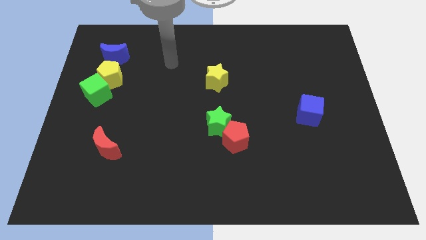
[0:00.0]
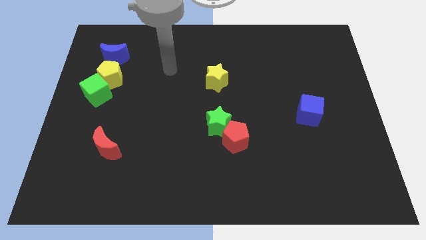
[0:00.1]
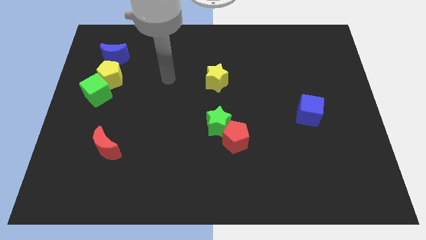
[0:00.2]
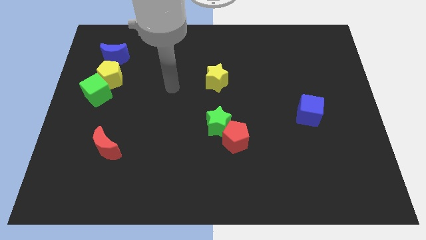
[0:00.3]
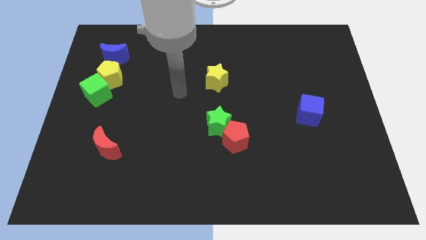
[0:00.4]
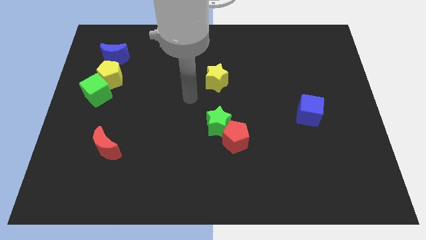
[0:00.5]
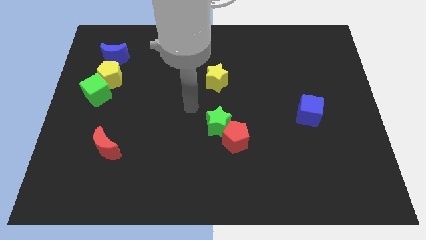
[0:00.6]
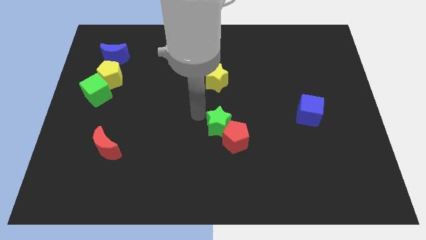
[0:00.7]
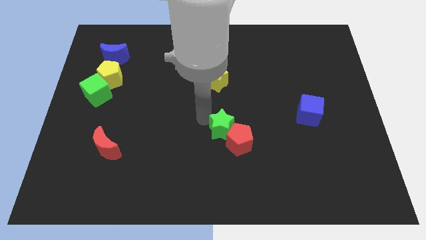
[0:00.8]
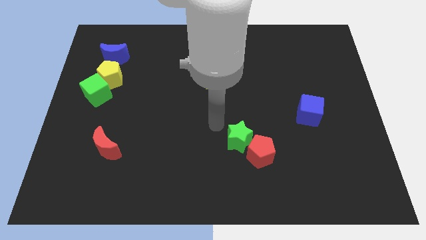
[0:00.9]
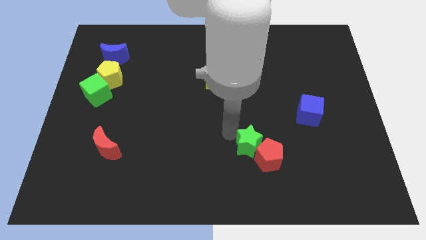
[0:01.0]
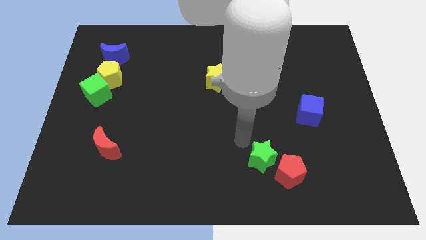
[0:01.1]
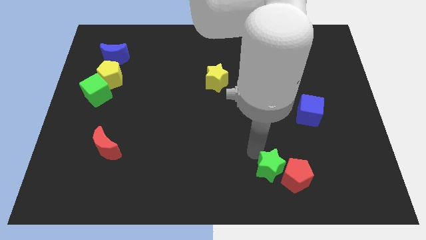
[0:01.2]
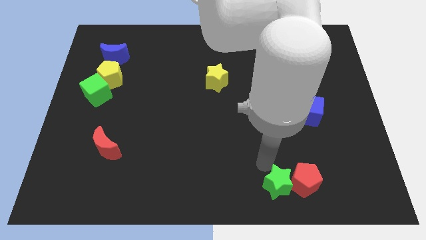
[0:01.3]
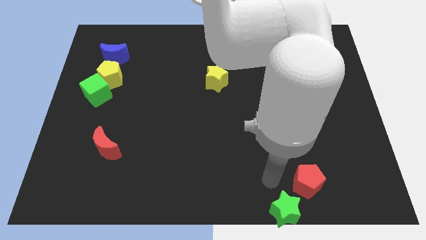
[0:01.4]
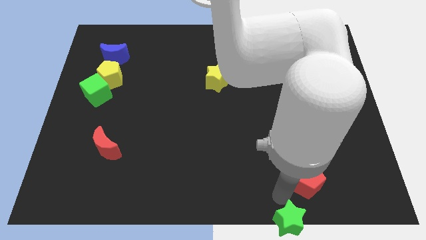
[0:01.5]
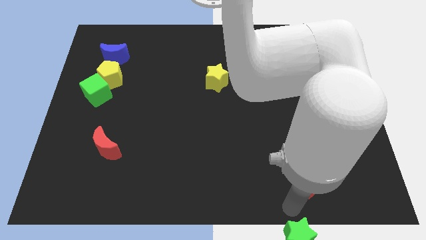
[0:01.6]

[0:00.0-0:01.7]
move the red pentagon away from the green star

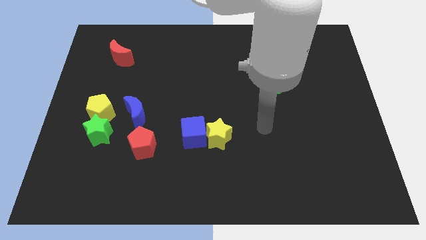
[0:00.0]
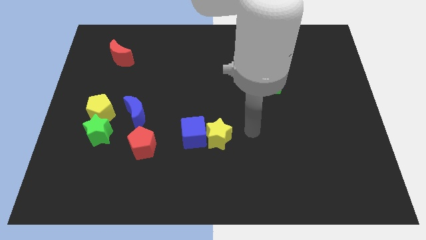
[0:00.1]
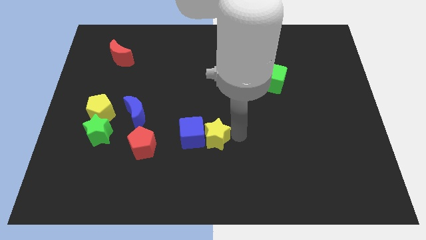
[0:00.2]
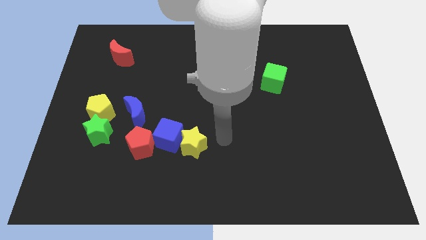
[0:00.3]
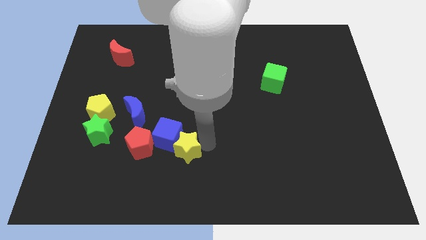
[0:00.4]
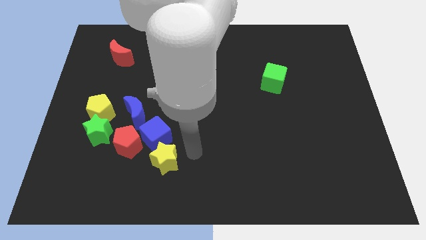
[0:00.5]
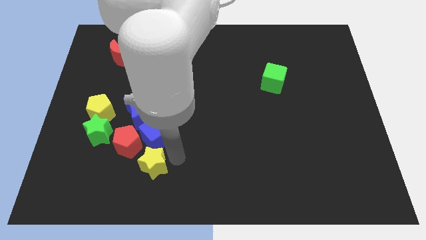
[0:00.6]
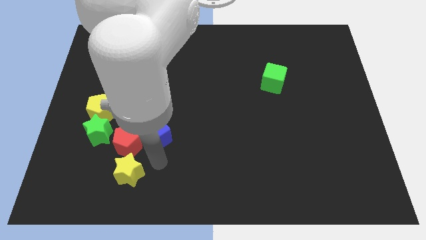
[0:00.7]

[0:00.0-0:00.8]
separate the blue cube from the yellow star

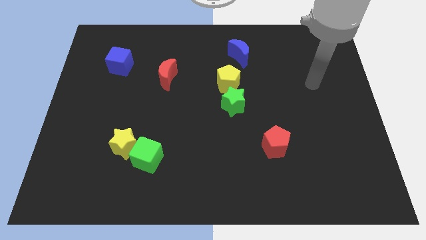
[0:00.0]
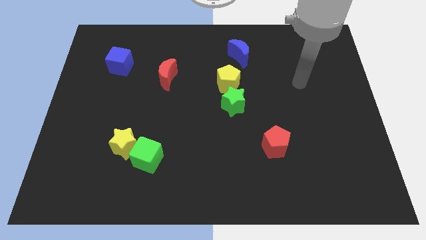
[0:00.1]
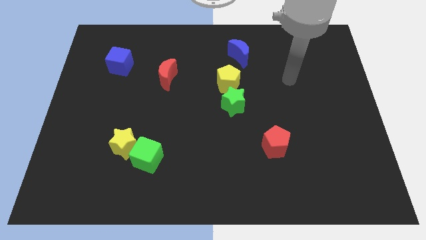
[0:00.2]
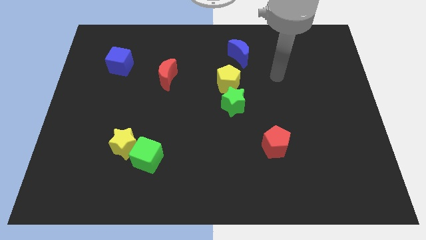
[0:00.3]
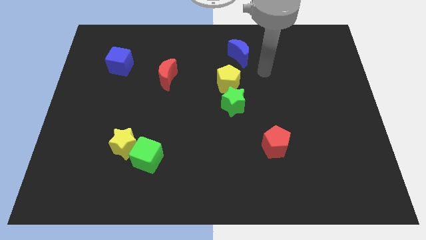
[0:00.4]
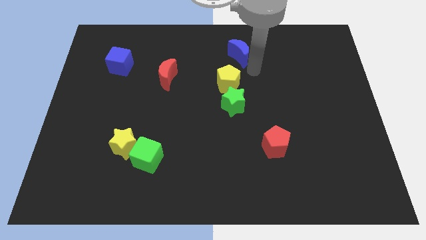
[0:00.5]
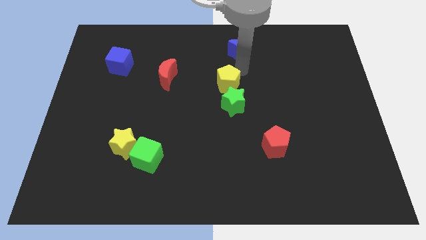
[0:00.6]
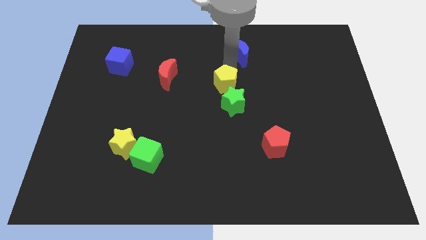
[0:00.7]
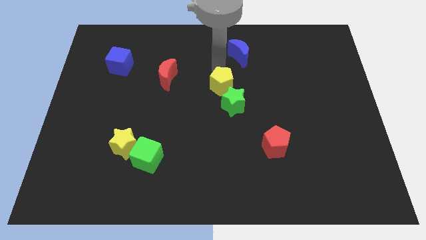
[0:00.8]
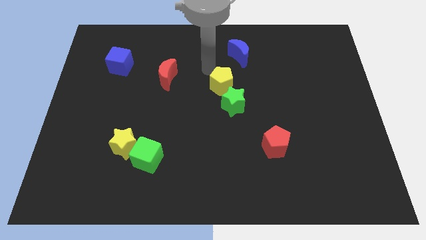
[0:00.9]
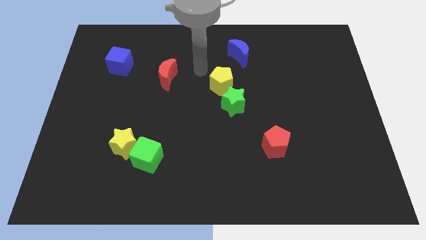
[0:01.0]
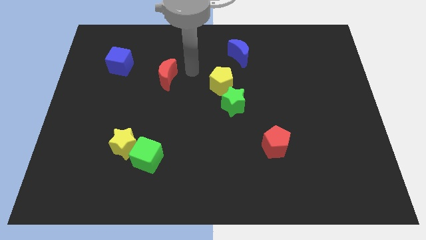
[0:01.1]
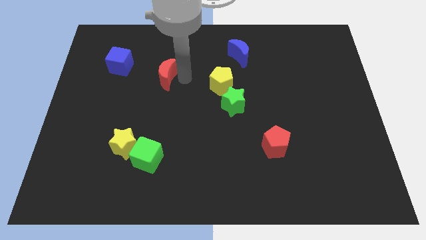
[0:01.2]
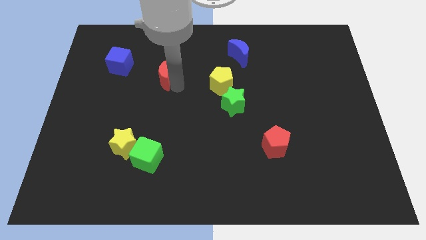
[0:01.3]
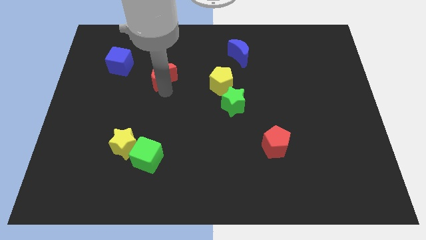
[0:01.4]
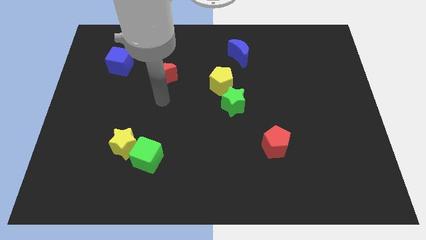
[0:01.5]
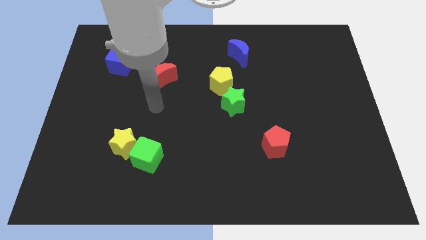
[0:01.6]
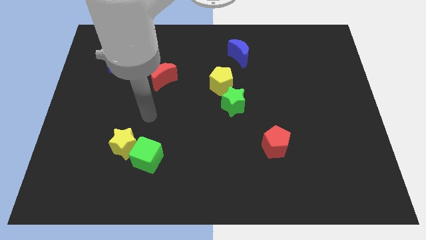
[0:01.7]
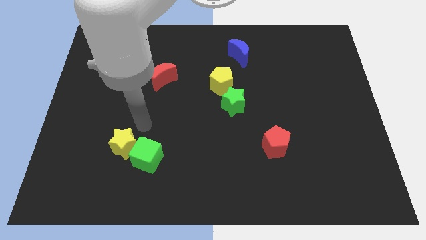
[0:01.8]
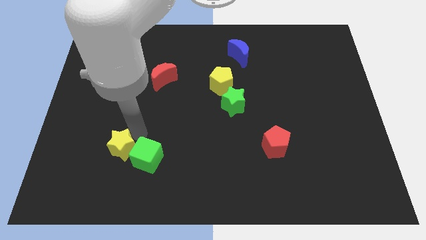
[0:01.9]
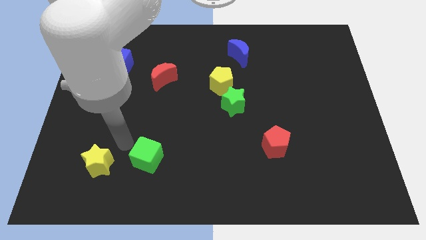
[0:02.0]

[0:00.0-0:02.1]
pull the green cube apart from the yellow star

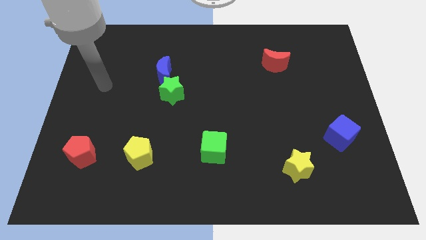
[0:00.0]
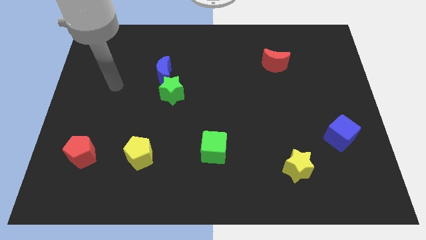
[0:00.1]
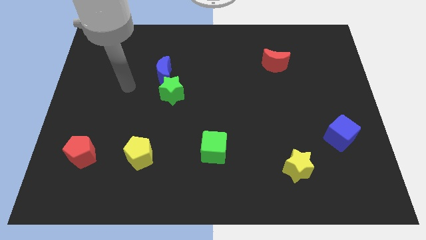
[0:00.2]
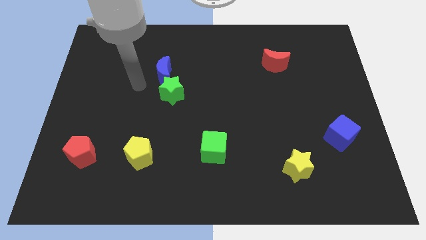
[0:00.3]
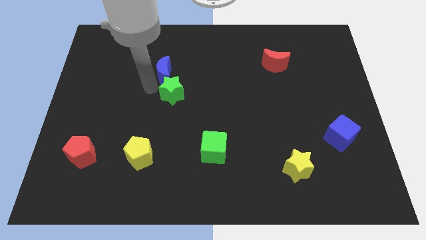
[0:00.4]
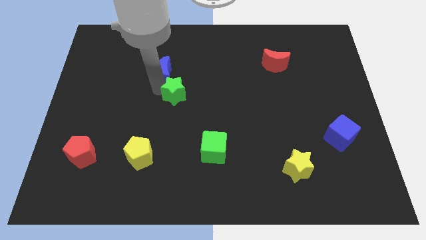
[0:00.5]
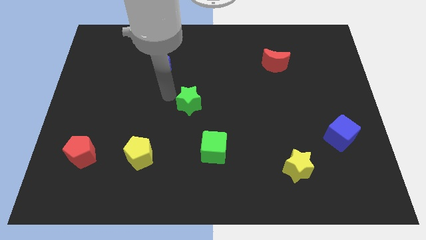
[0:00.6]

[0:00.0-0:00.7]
pull the blue moon apart from the green star

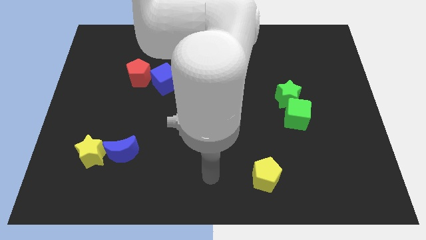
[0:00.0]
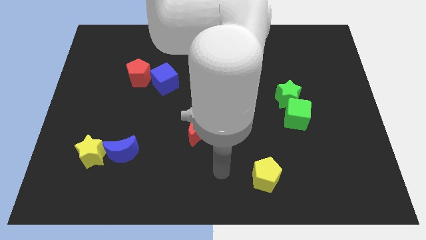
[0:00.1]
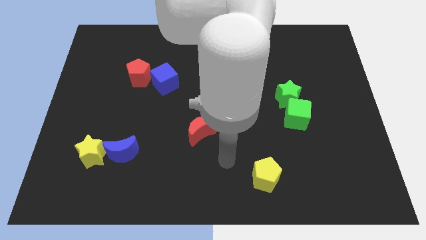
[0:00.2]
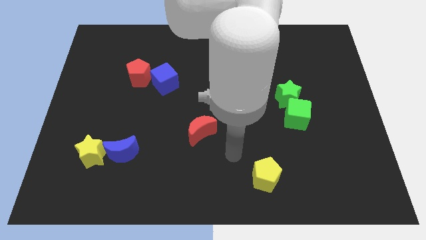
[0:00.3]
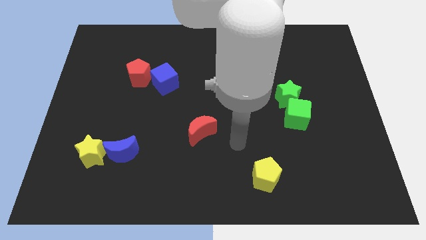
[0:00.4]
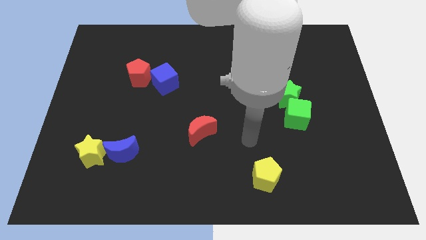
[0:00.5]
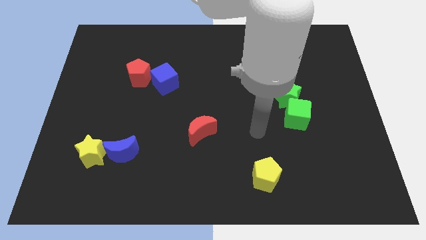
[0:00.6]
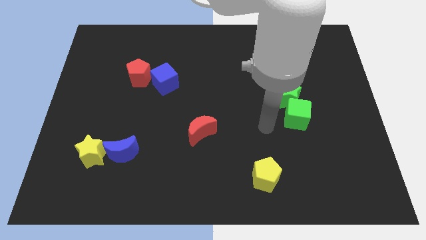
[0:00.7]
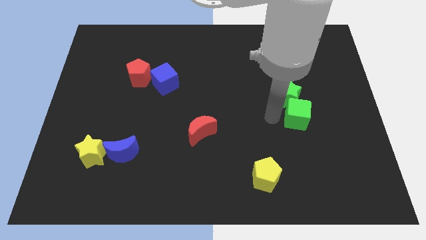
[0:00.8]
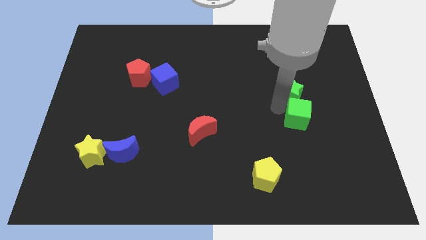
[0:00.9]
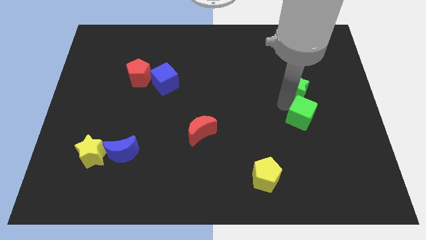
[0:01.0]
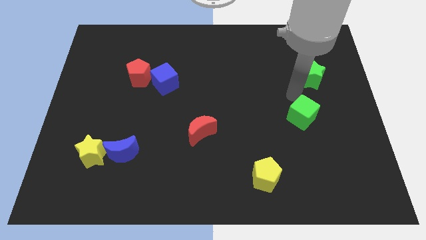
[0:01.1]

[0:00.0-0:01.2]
pull the green cube apart from the green star

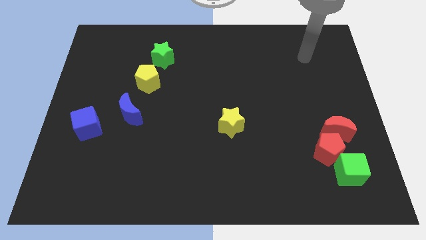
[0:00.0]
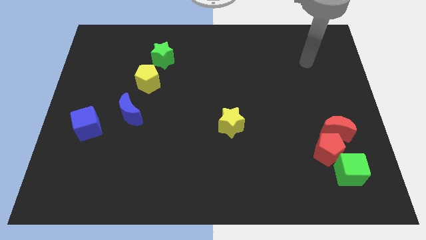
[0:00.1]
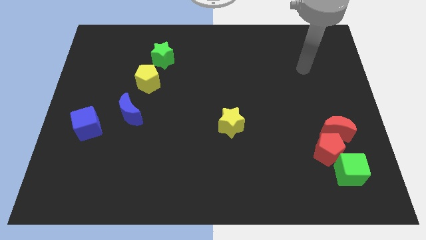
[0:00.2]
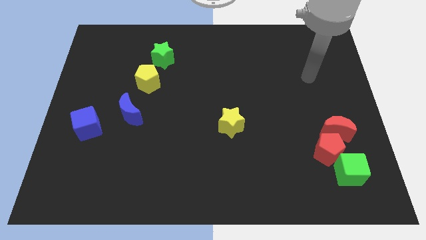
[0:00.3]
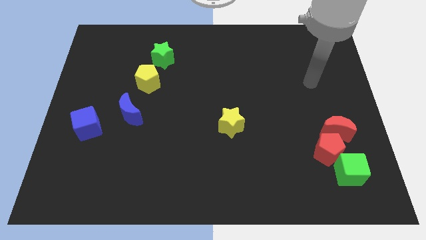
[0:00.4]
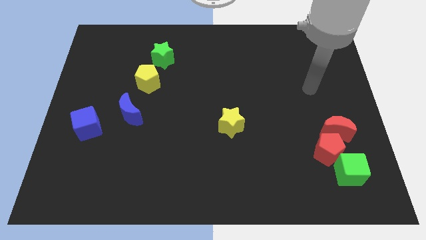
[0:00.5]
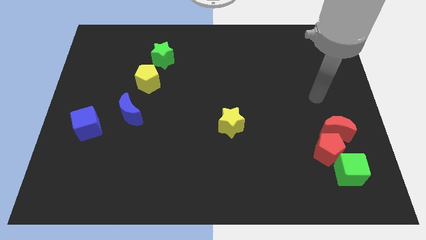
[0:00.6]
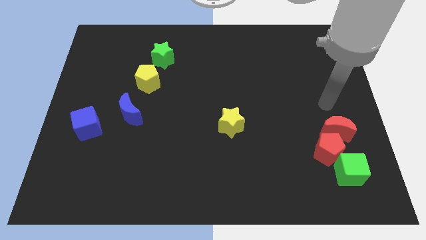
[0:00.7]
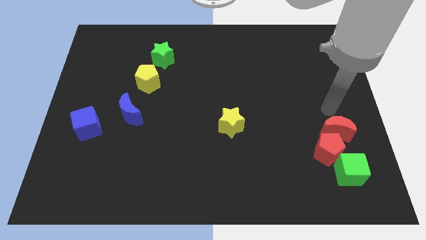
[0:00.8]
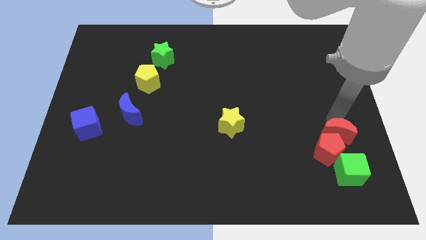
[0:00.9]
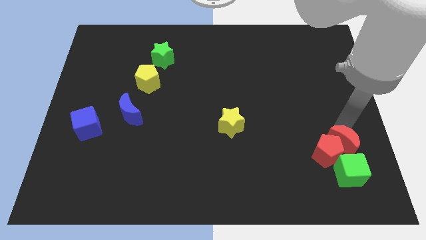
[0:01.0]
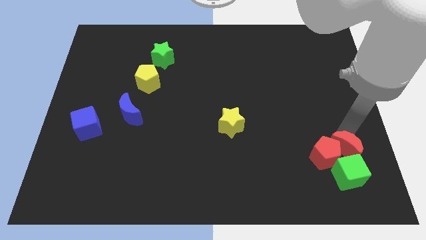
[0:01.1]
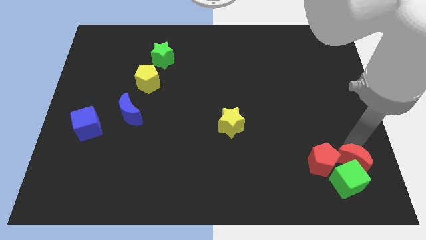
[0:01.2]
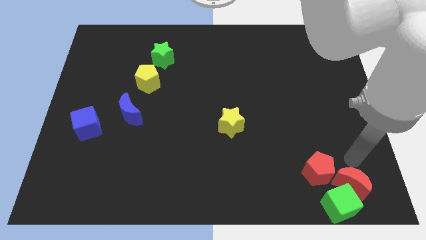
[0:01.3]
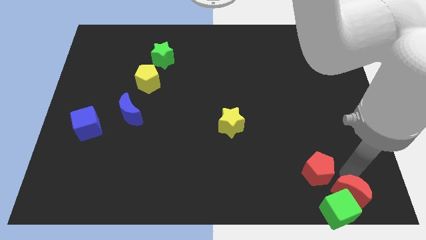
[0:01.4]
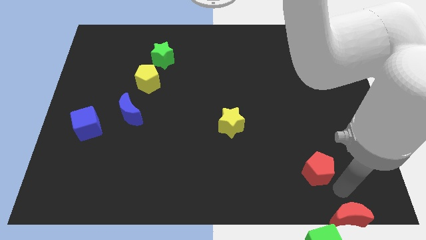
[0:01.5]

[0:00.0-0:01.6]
move the red pentagon away from the red moon and green cube

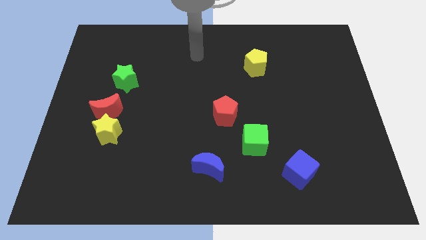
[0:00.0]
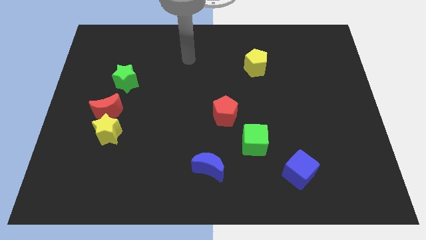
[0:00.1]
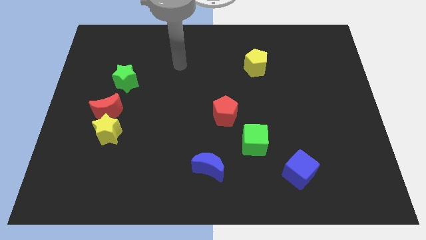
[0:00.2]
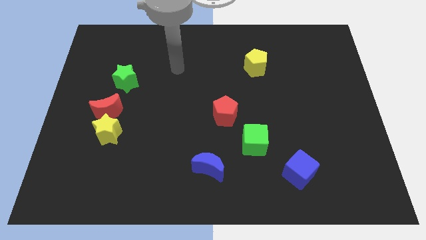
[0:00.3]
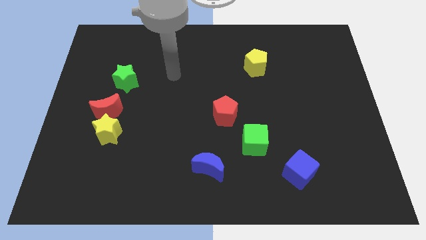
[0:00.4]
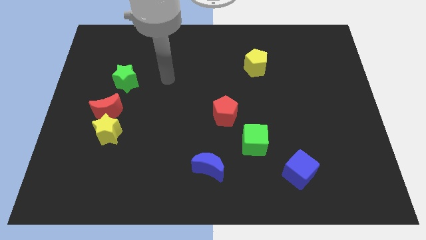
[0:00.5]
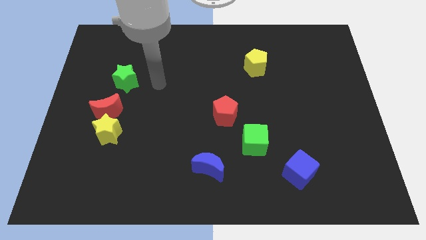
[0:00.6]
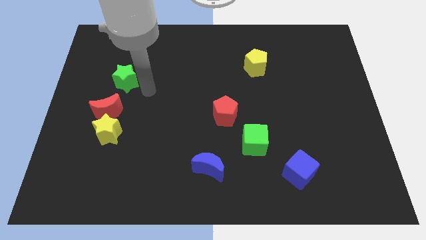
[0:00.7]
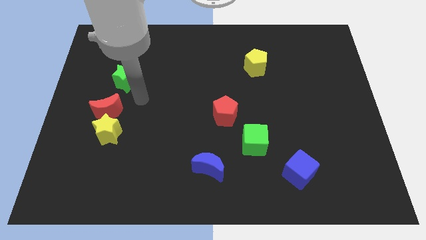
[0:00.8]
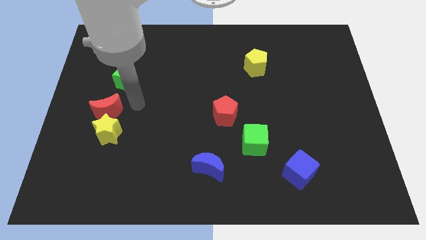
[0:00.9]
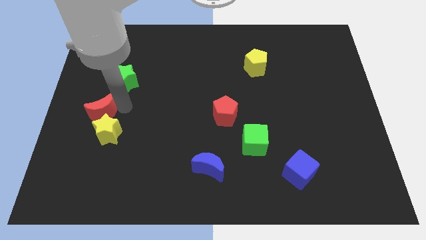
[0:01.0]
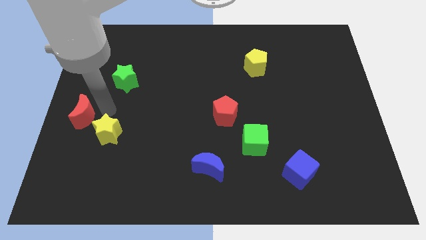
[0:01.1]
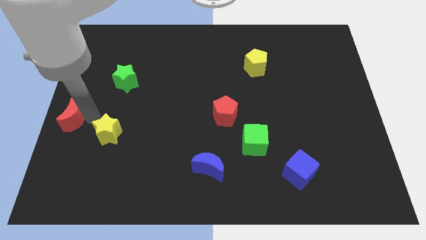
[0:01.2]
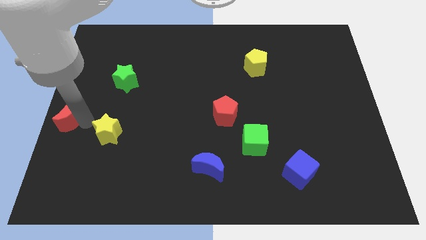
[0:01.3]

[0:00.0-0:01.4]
pull the yellow star apart from the red moon
